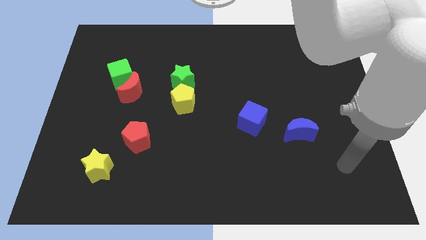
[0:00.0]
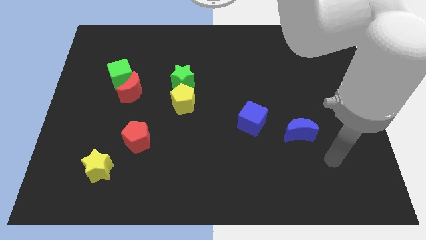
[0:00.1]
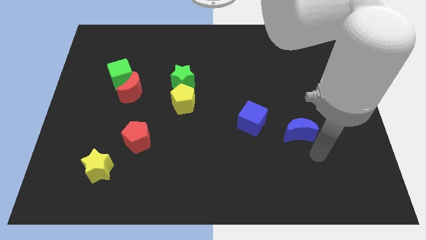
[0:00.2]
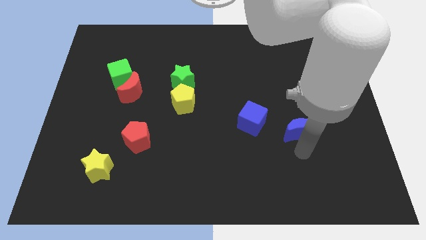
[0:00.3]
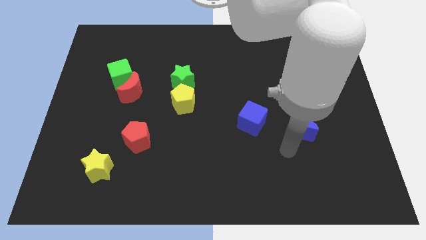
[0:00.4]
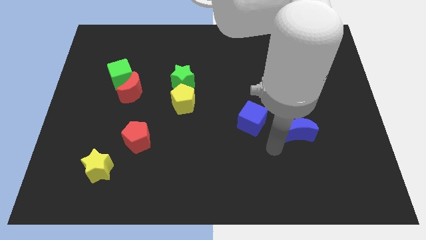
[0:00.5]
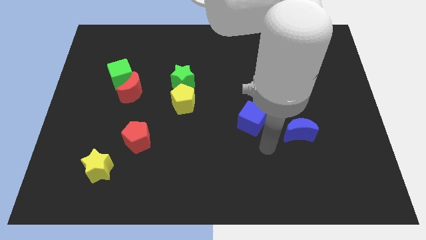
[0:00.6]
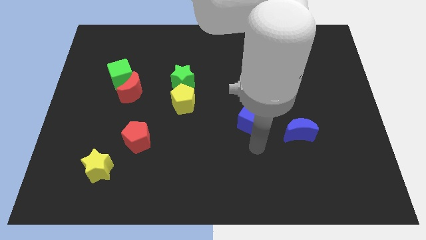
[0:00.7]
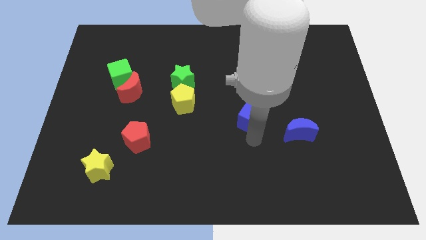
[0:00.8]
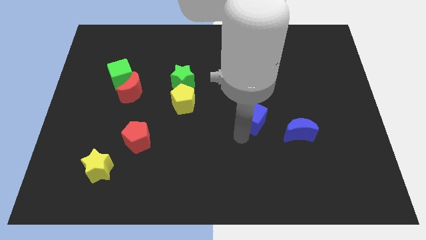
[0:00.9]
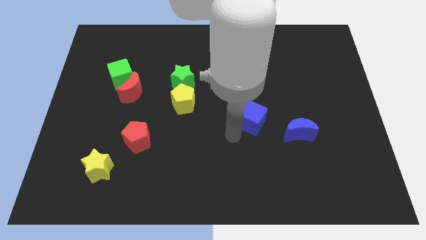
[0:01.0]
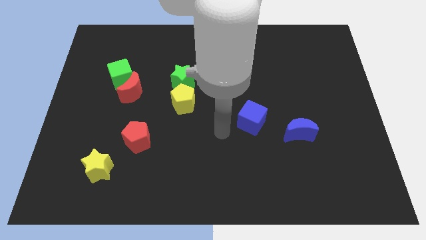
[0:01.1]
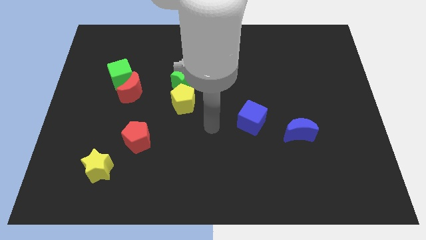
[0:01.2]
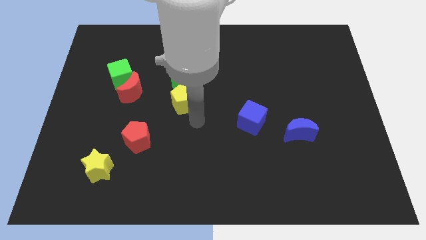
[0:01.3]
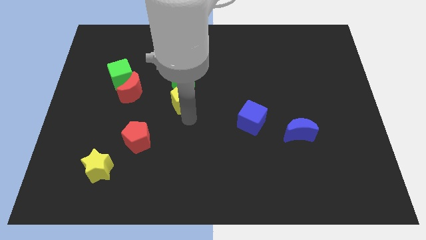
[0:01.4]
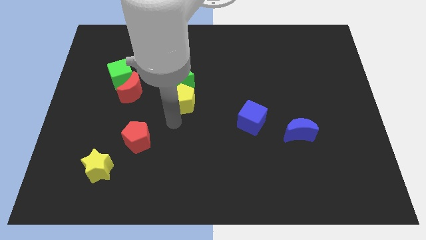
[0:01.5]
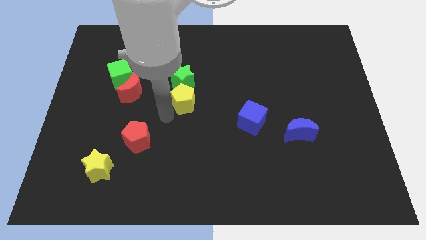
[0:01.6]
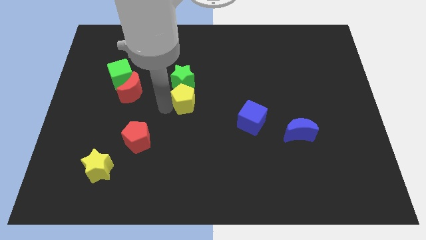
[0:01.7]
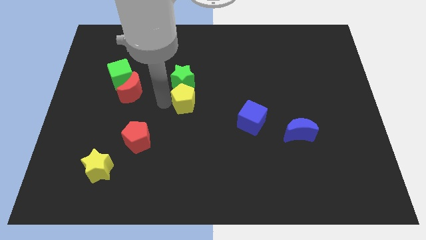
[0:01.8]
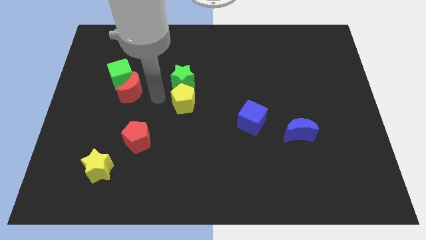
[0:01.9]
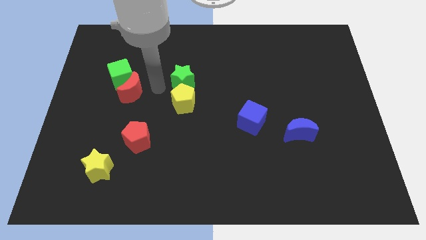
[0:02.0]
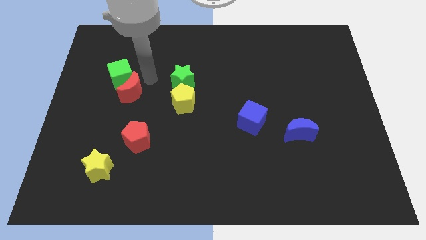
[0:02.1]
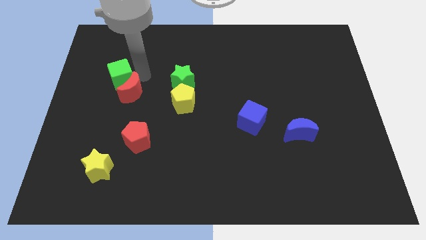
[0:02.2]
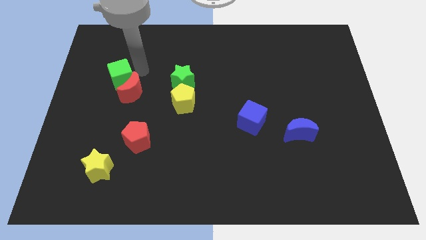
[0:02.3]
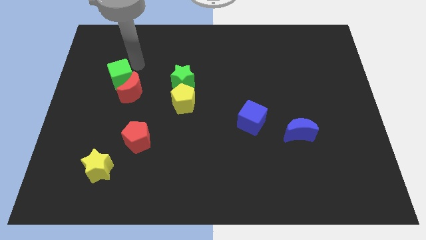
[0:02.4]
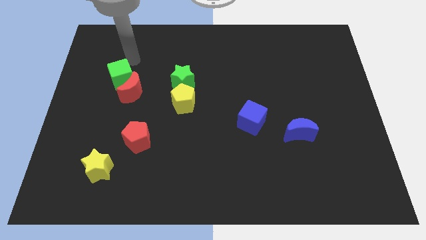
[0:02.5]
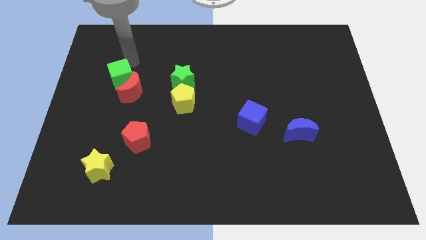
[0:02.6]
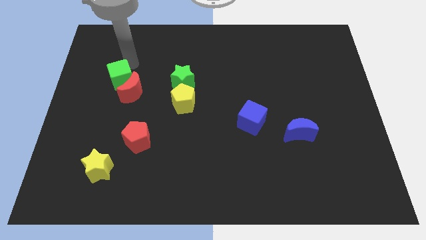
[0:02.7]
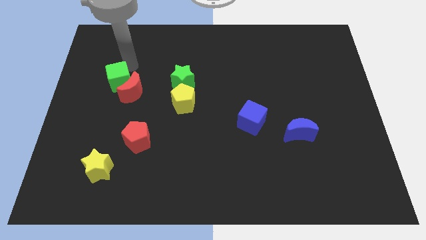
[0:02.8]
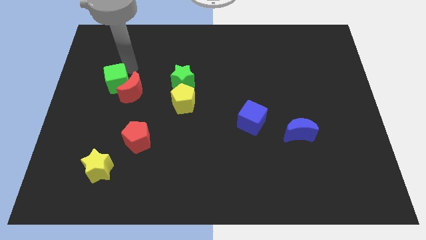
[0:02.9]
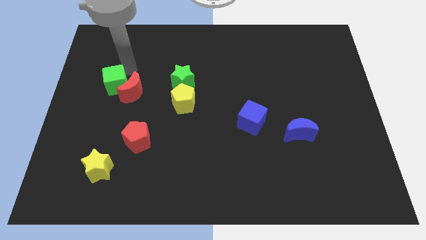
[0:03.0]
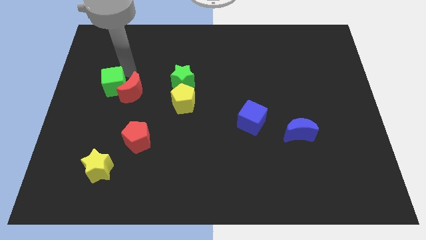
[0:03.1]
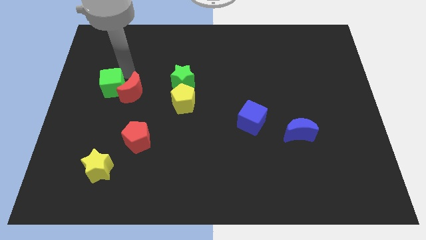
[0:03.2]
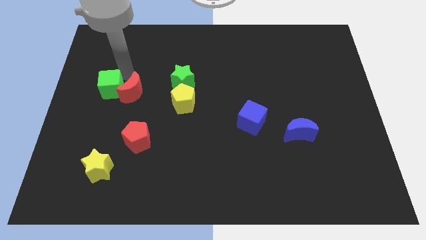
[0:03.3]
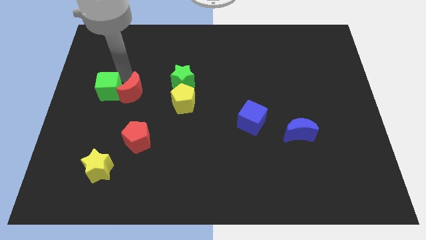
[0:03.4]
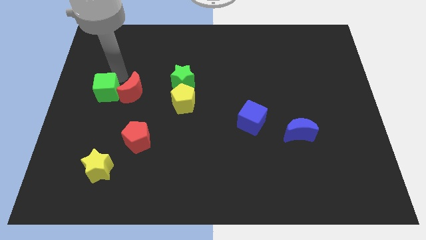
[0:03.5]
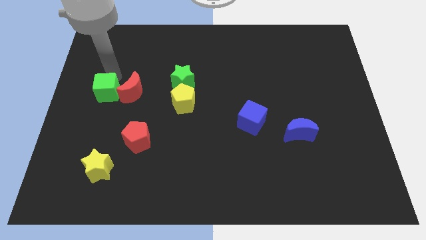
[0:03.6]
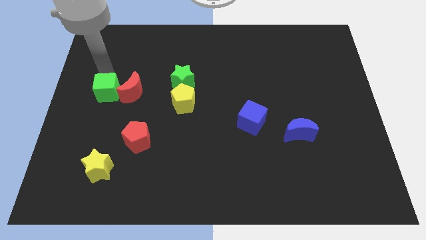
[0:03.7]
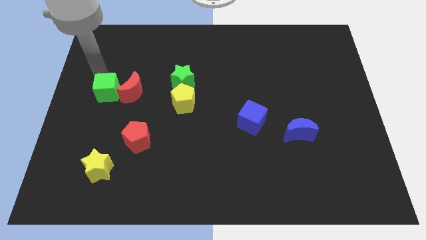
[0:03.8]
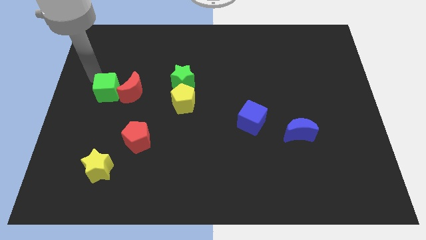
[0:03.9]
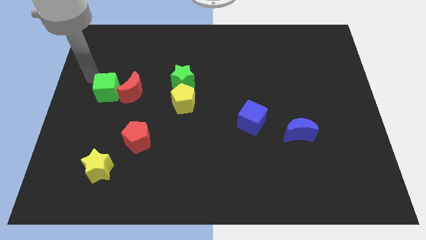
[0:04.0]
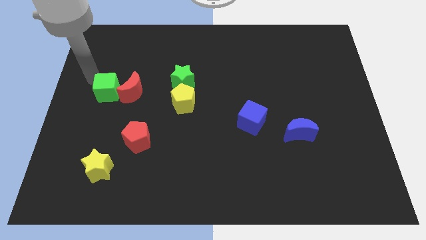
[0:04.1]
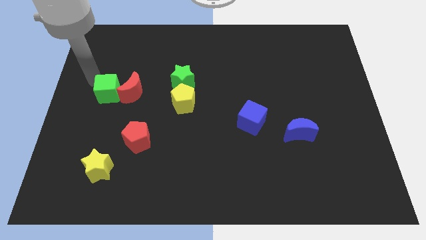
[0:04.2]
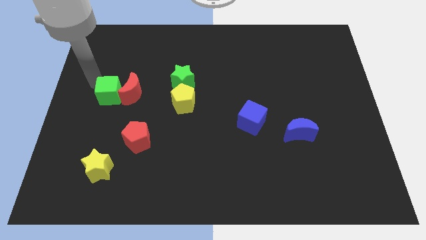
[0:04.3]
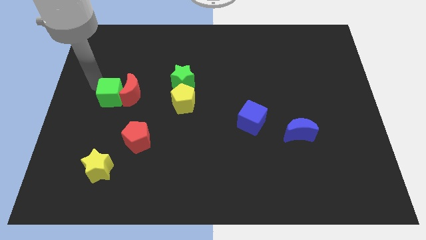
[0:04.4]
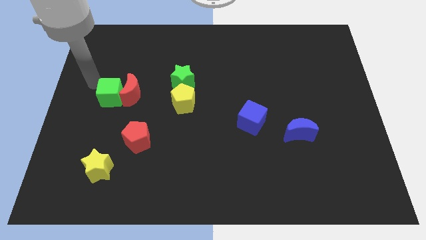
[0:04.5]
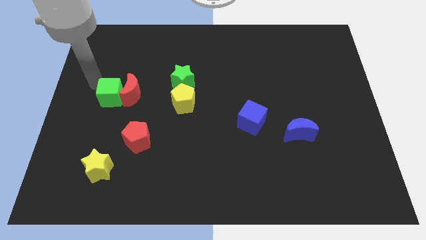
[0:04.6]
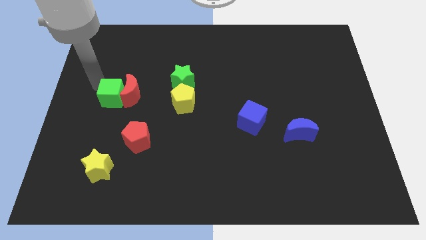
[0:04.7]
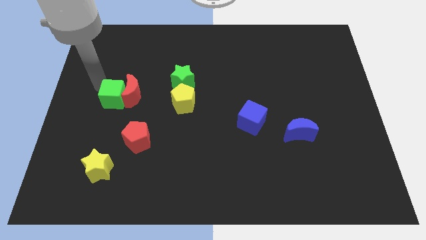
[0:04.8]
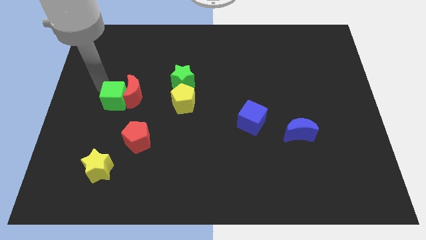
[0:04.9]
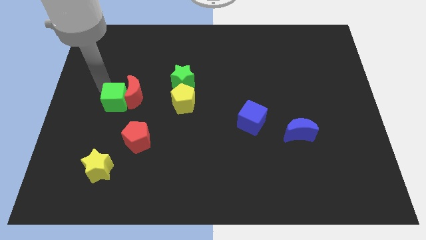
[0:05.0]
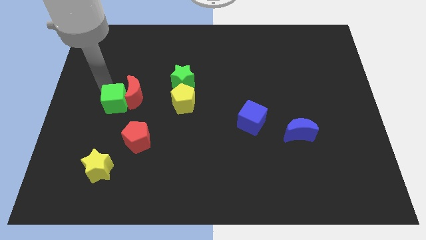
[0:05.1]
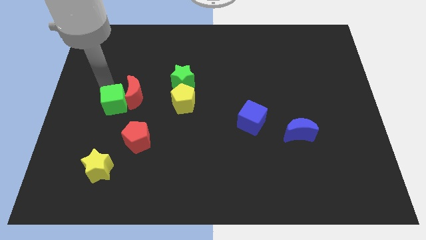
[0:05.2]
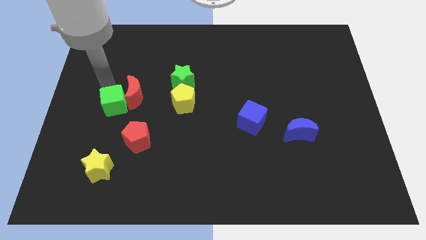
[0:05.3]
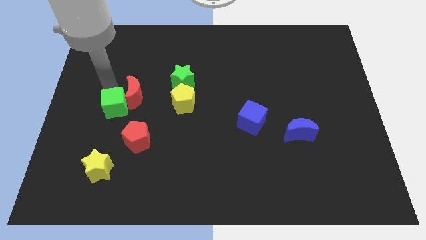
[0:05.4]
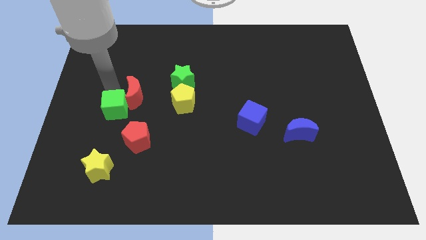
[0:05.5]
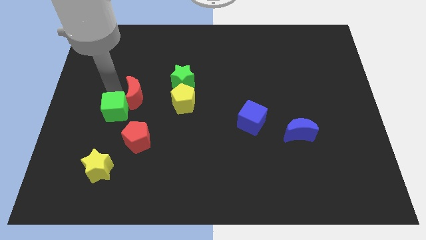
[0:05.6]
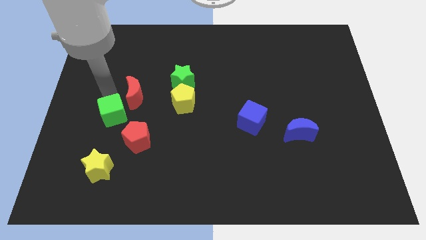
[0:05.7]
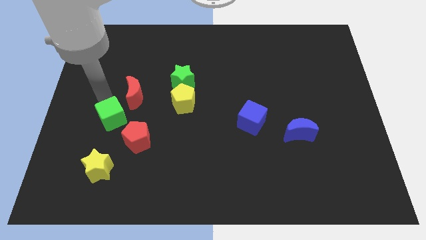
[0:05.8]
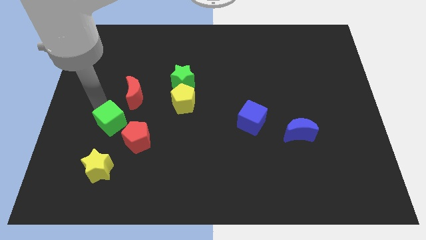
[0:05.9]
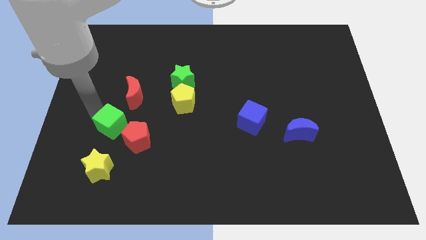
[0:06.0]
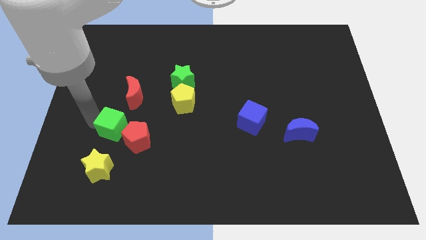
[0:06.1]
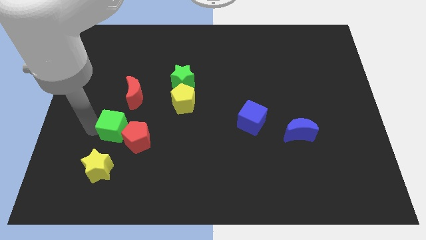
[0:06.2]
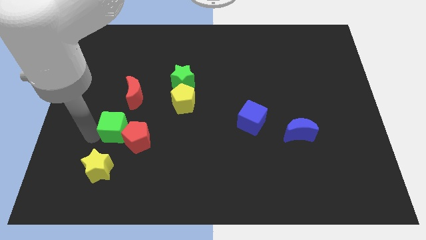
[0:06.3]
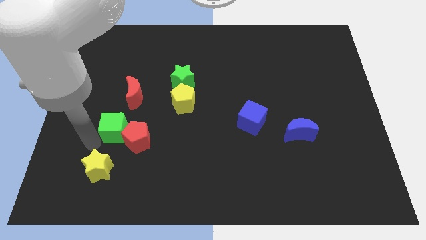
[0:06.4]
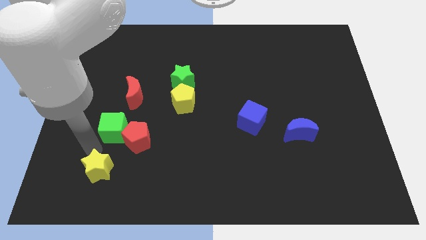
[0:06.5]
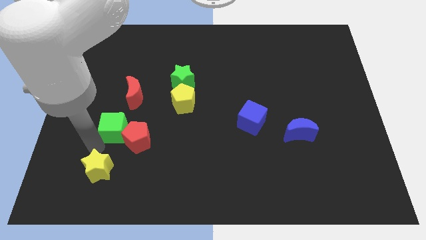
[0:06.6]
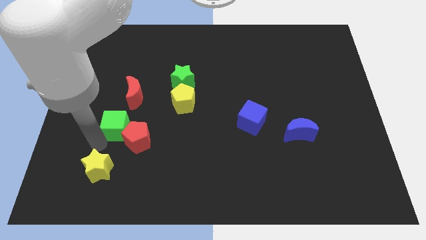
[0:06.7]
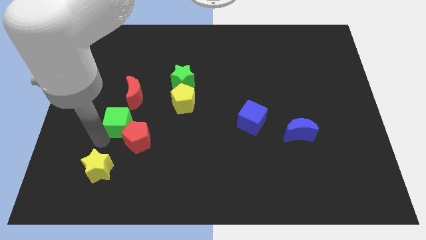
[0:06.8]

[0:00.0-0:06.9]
slide the green cube above the red pentagon
